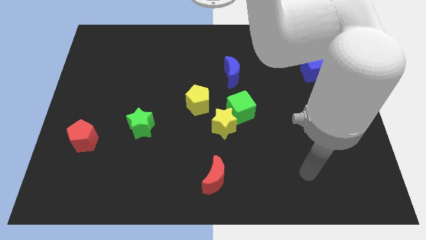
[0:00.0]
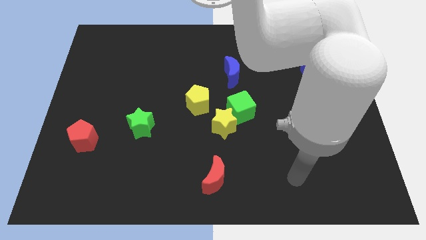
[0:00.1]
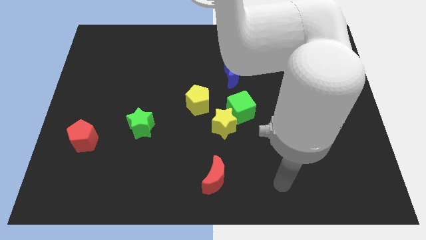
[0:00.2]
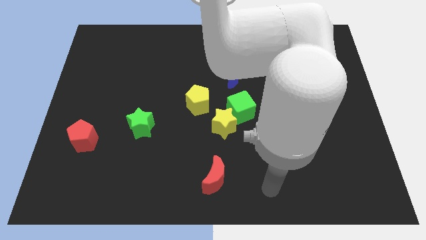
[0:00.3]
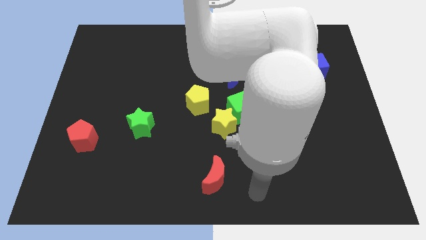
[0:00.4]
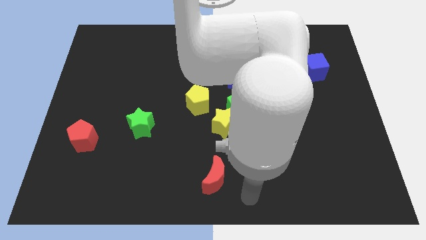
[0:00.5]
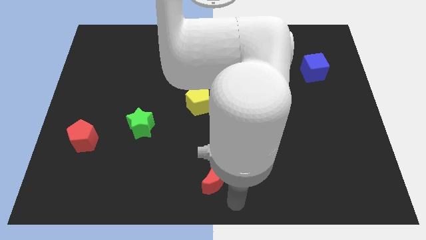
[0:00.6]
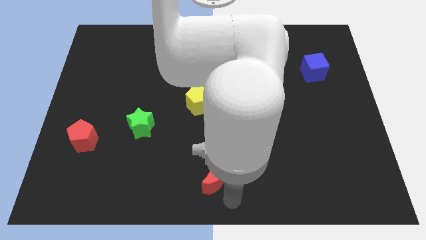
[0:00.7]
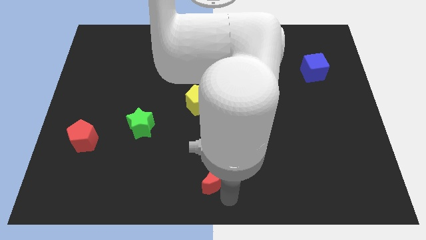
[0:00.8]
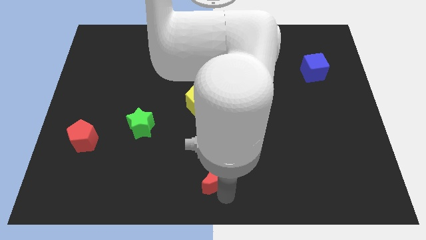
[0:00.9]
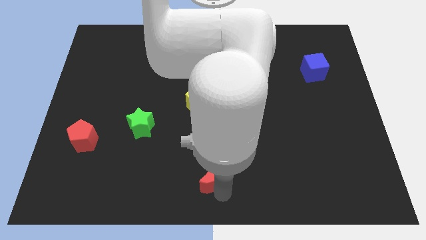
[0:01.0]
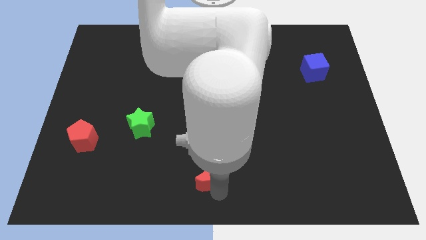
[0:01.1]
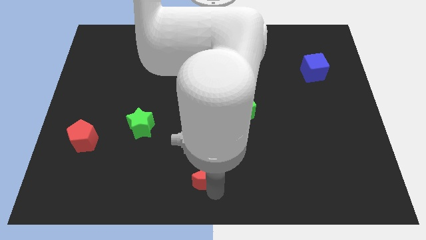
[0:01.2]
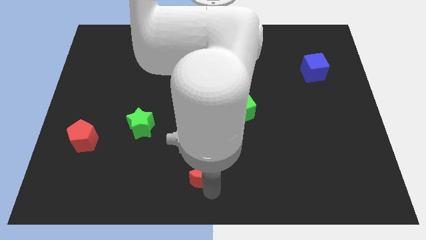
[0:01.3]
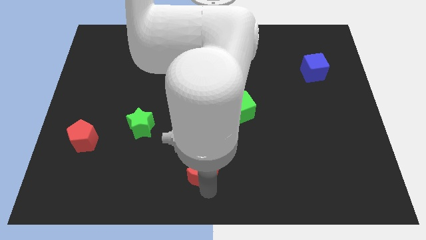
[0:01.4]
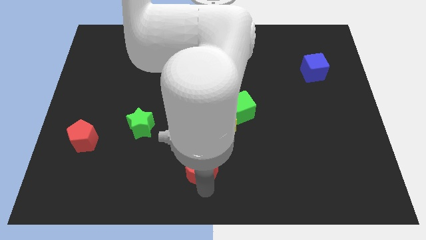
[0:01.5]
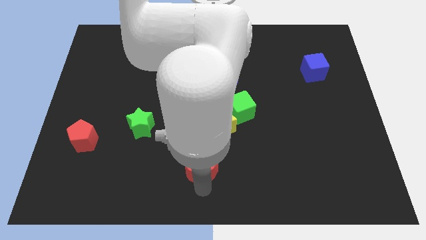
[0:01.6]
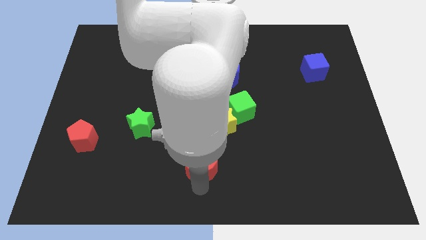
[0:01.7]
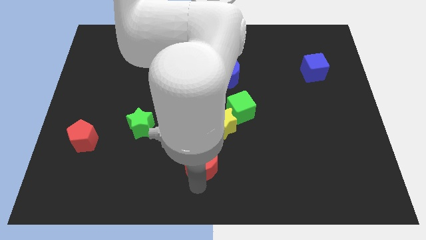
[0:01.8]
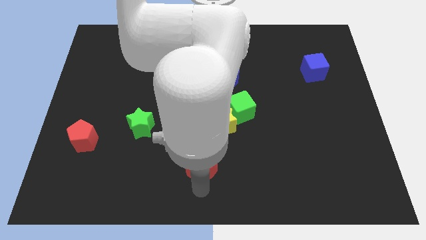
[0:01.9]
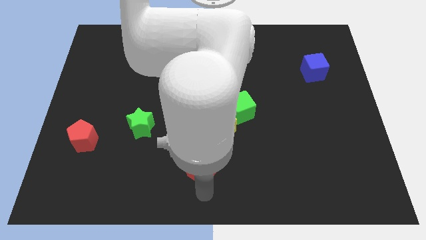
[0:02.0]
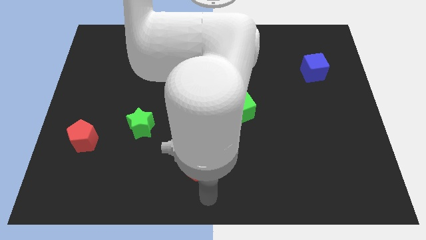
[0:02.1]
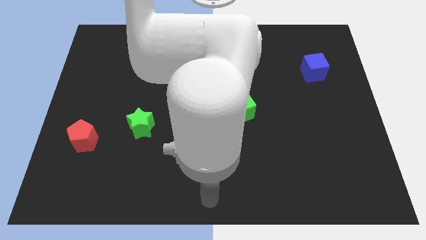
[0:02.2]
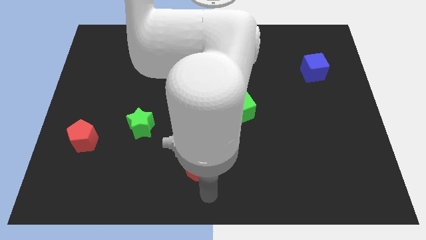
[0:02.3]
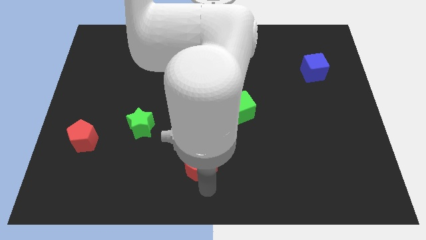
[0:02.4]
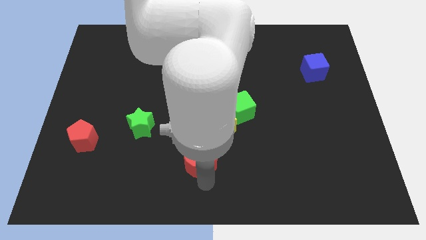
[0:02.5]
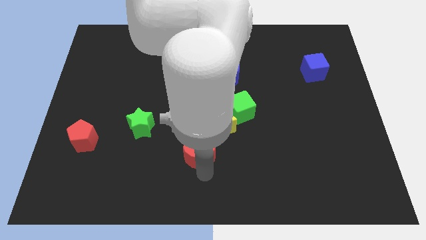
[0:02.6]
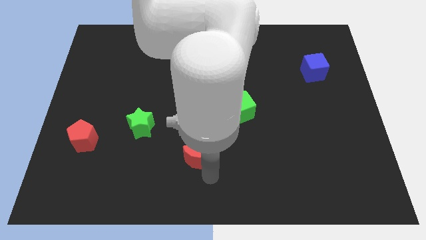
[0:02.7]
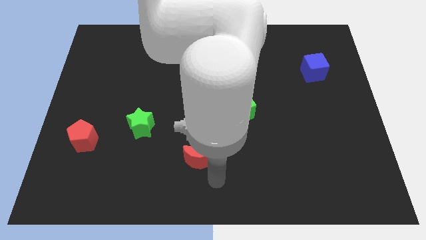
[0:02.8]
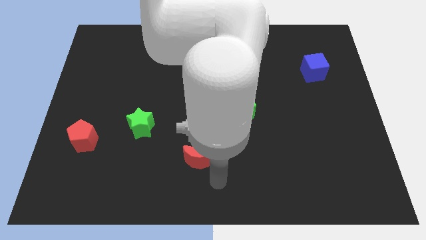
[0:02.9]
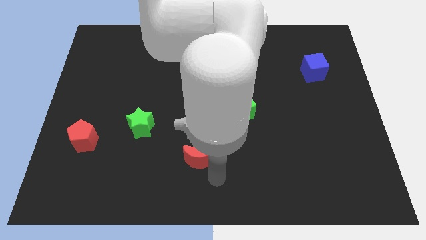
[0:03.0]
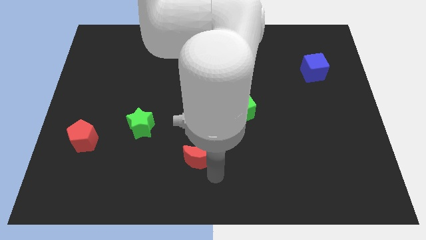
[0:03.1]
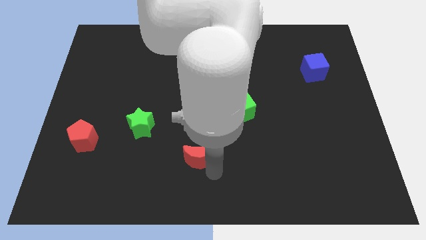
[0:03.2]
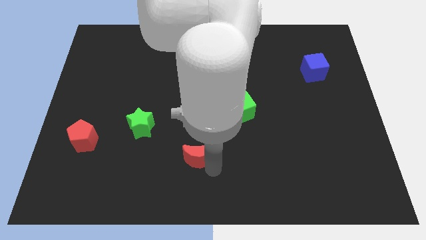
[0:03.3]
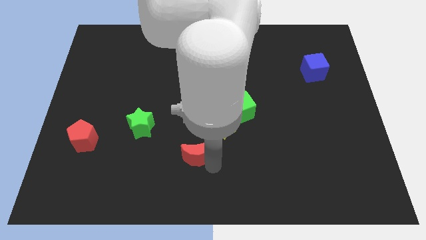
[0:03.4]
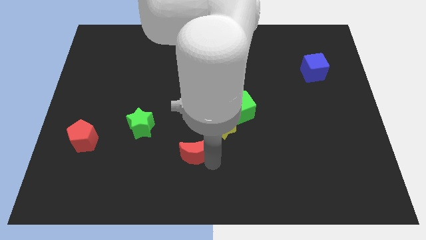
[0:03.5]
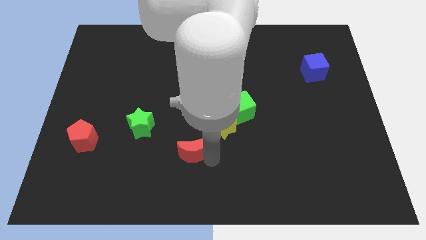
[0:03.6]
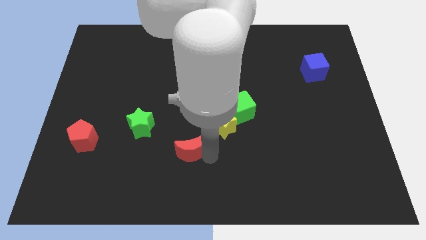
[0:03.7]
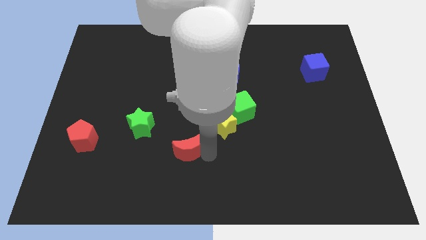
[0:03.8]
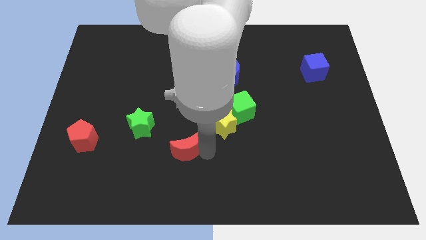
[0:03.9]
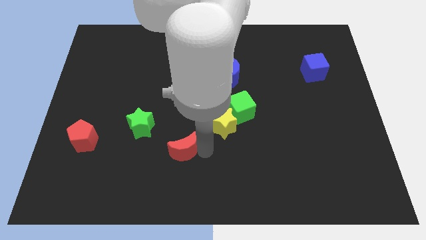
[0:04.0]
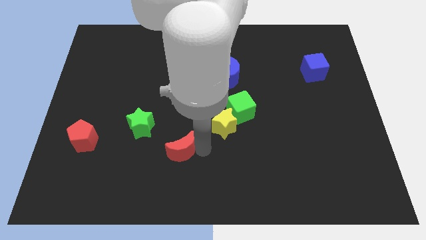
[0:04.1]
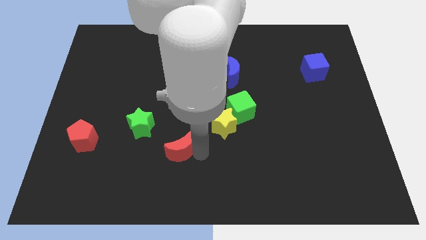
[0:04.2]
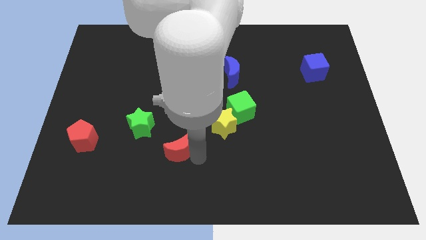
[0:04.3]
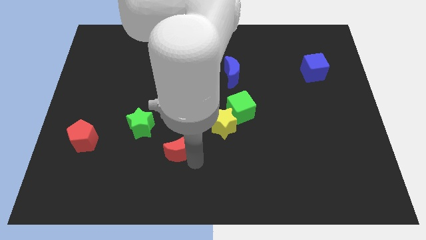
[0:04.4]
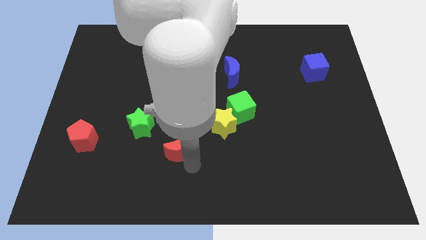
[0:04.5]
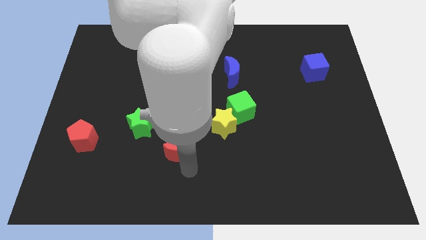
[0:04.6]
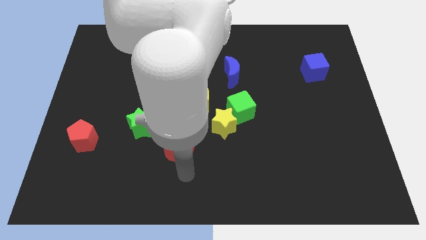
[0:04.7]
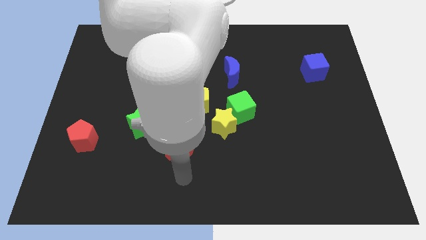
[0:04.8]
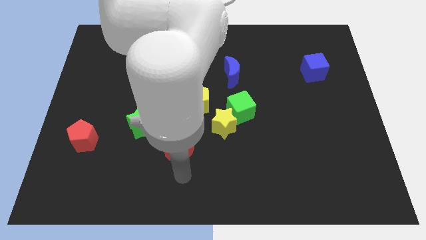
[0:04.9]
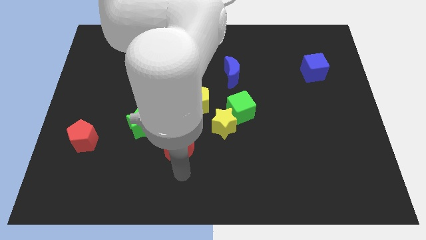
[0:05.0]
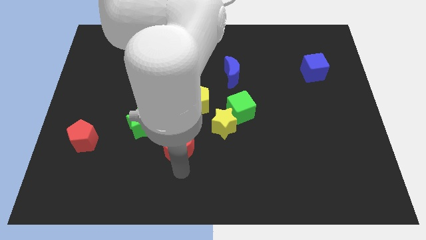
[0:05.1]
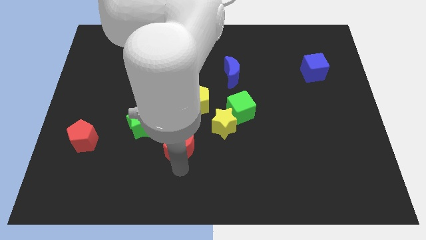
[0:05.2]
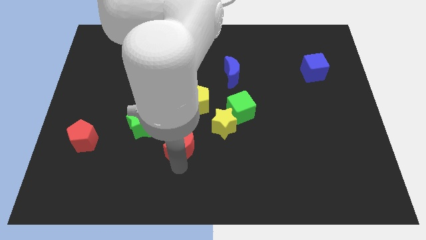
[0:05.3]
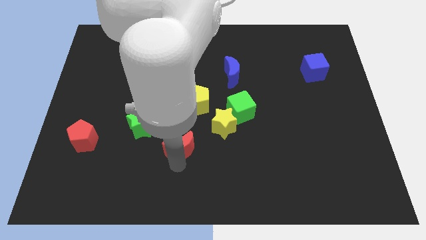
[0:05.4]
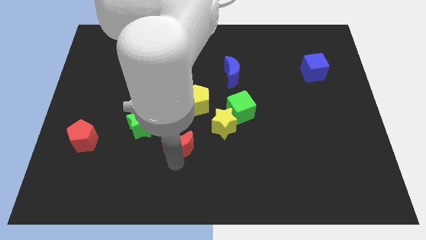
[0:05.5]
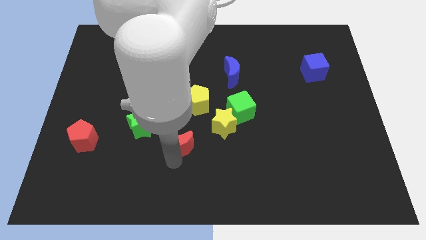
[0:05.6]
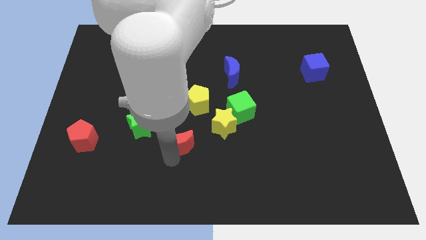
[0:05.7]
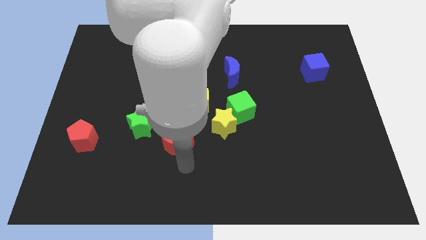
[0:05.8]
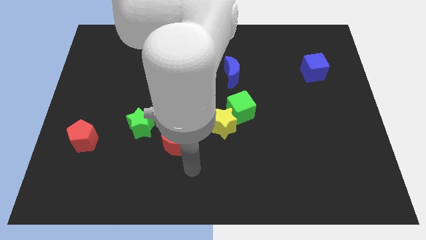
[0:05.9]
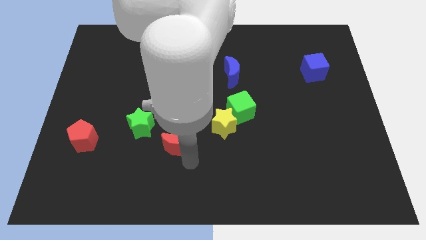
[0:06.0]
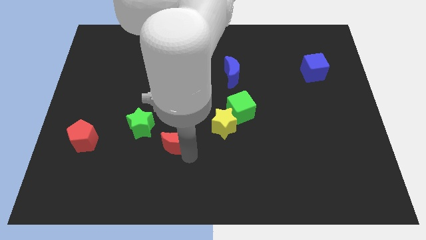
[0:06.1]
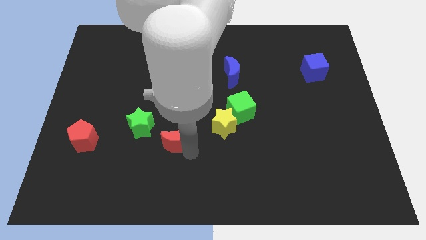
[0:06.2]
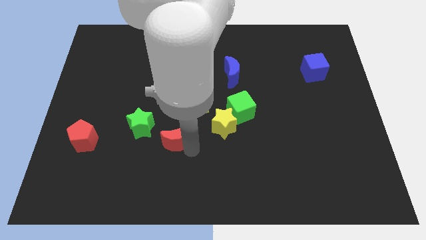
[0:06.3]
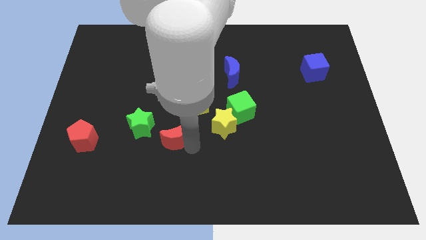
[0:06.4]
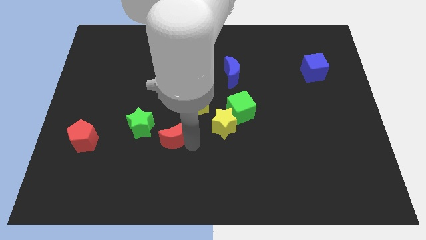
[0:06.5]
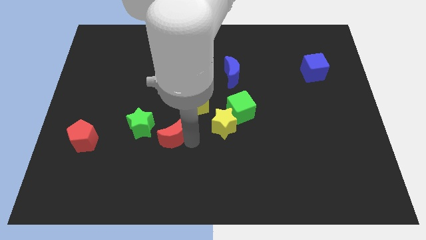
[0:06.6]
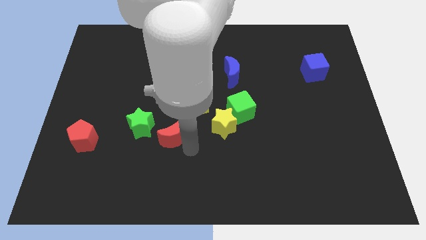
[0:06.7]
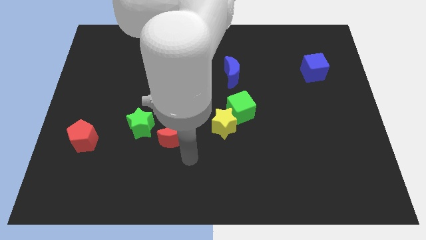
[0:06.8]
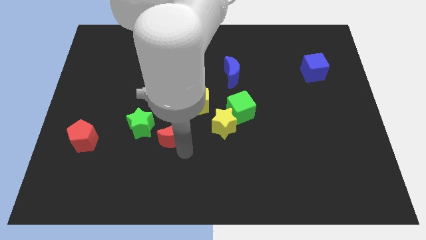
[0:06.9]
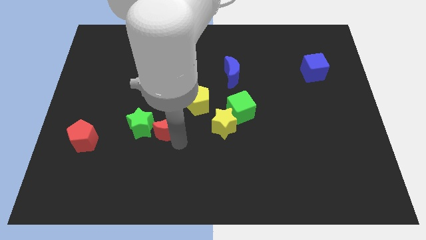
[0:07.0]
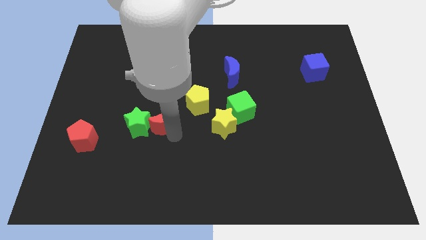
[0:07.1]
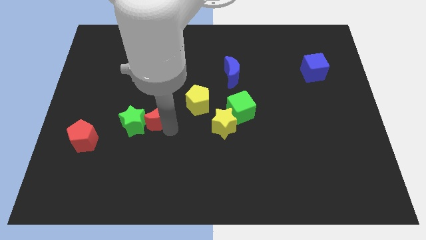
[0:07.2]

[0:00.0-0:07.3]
slide the red moon to the left of the yellow pentagon
